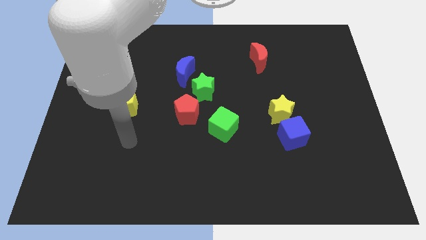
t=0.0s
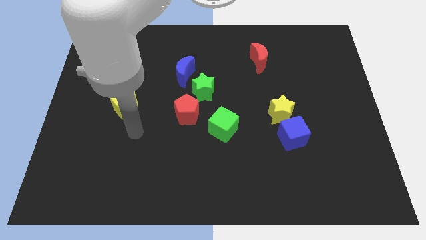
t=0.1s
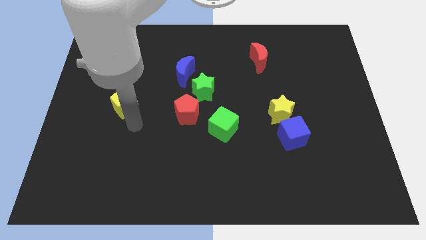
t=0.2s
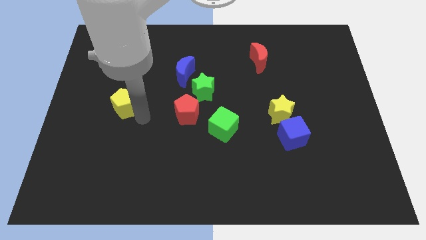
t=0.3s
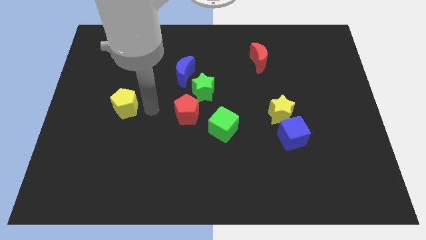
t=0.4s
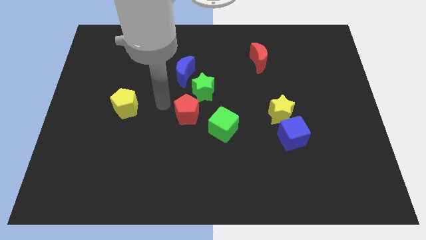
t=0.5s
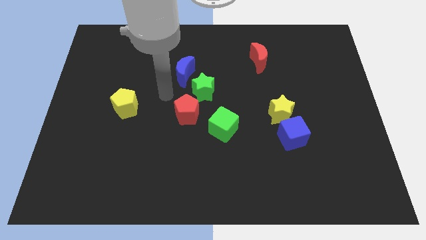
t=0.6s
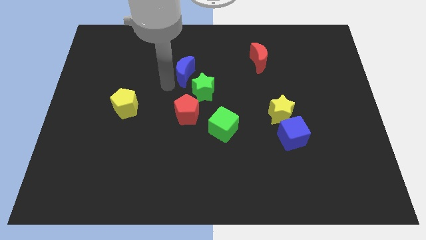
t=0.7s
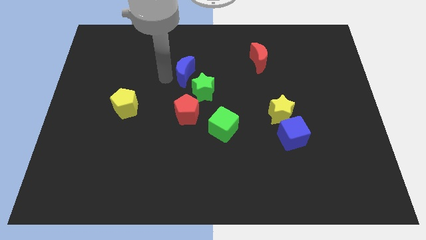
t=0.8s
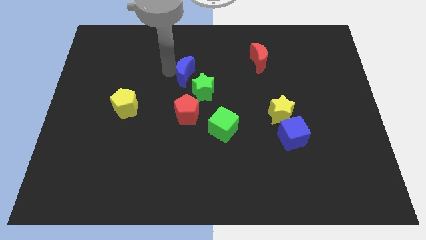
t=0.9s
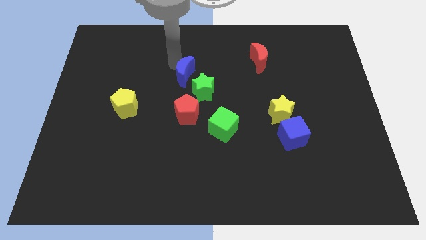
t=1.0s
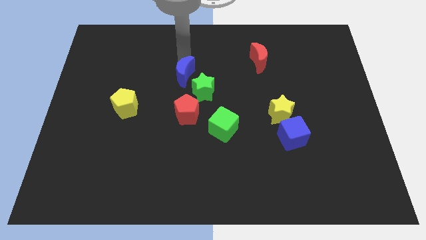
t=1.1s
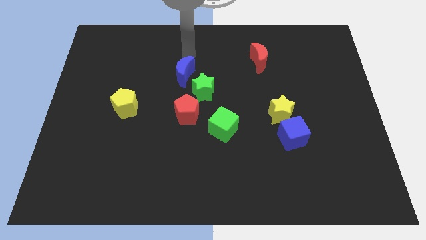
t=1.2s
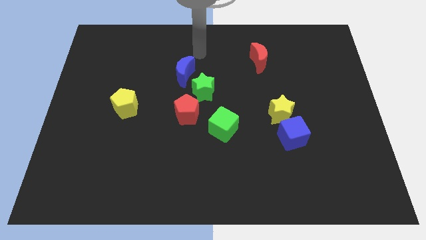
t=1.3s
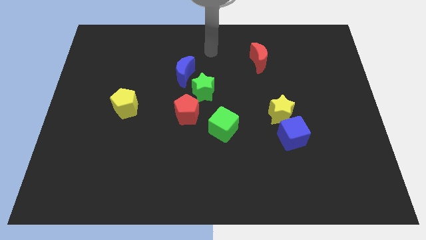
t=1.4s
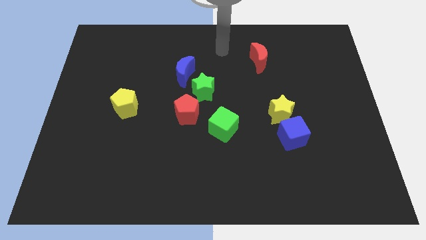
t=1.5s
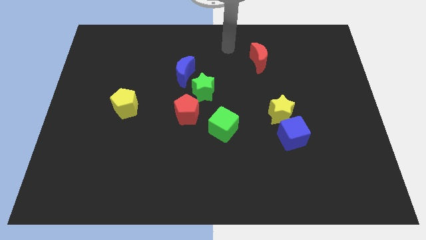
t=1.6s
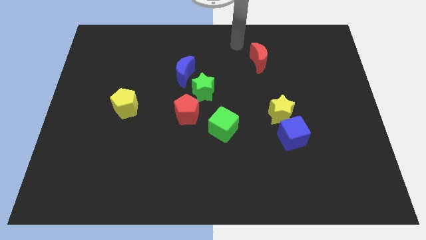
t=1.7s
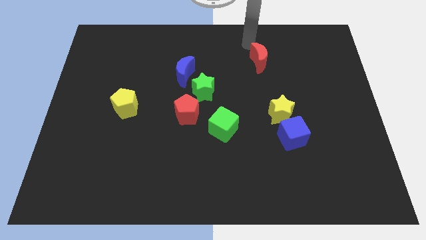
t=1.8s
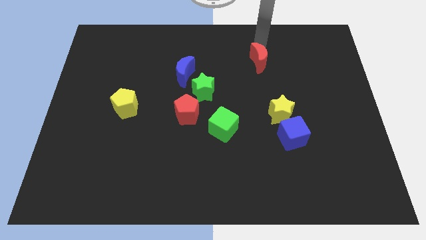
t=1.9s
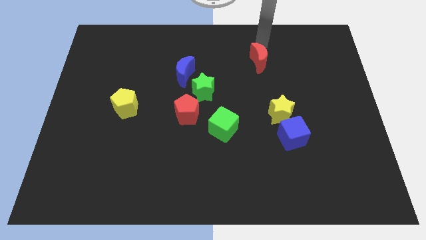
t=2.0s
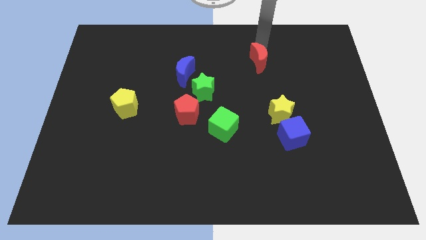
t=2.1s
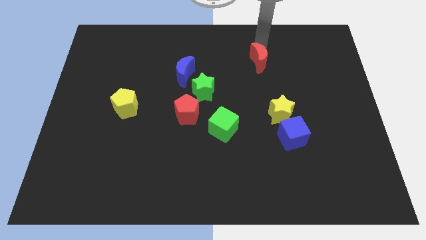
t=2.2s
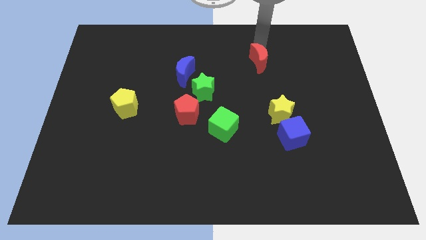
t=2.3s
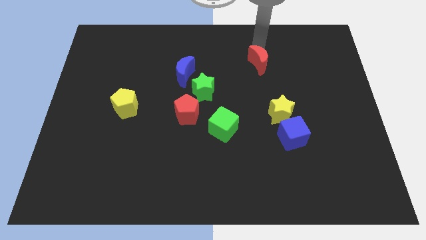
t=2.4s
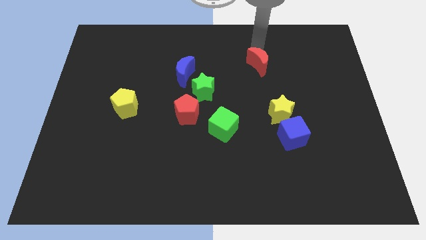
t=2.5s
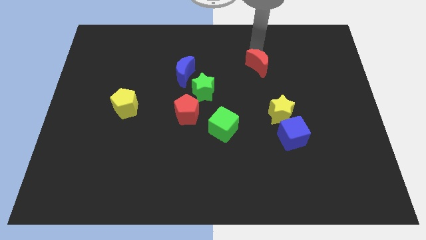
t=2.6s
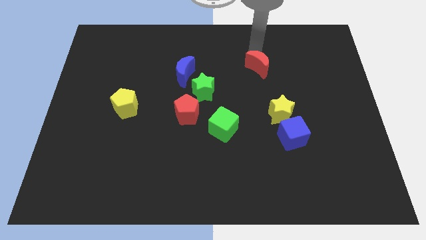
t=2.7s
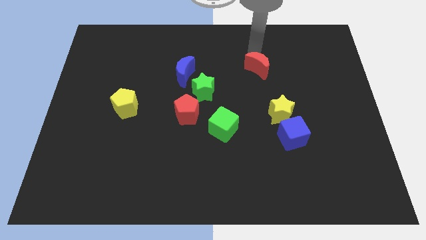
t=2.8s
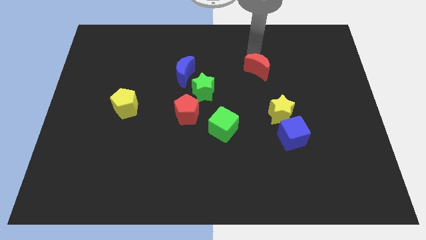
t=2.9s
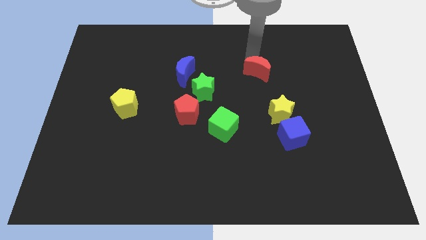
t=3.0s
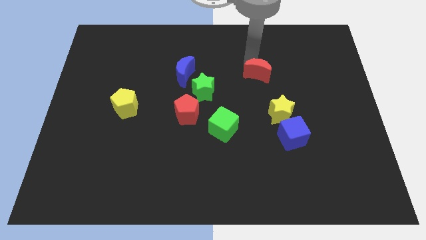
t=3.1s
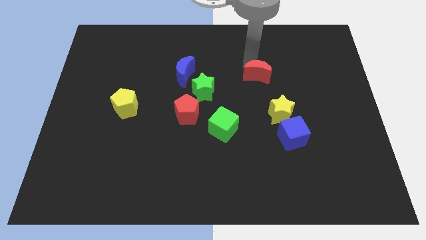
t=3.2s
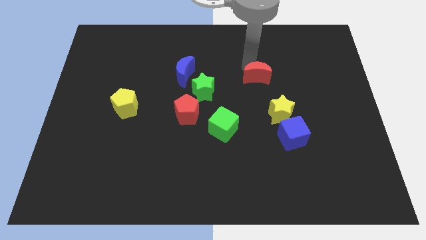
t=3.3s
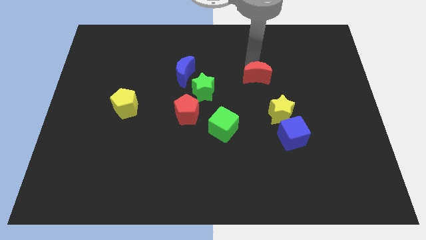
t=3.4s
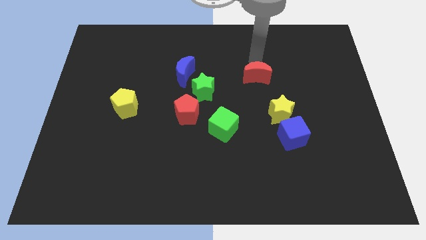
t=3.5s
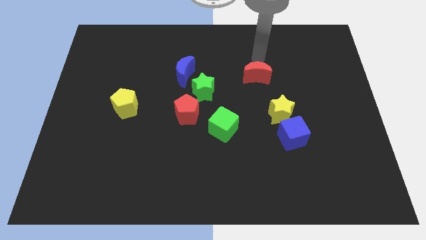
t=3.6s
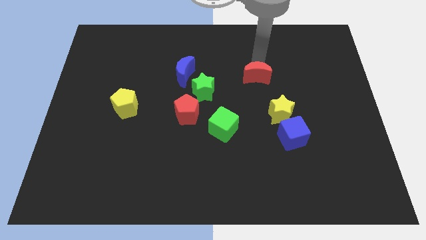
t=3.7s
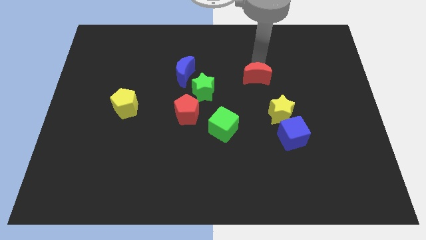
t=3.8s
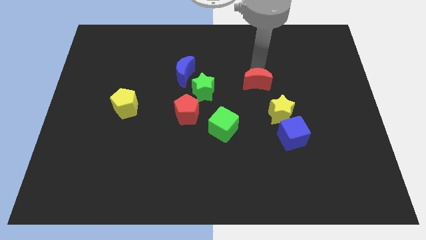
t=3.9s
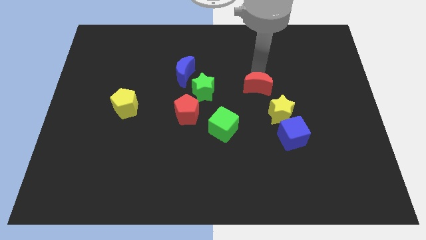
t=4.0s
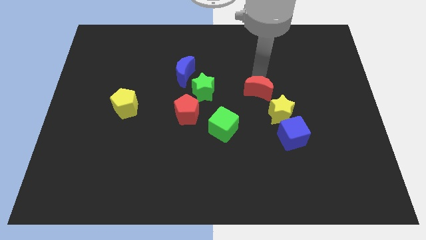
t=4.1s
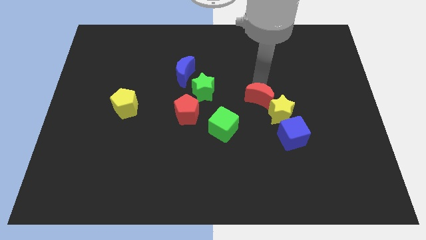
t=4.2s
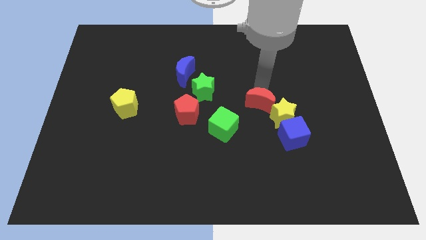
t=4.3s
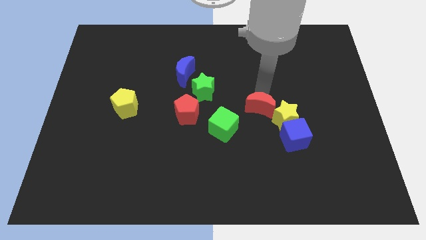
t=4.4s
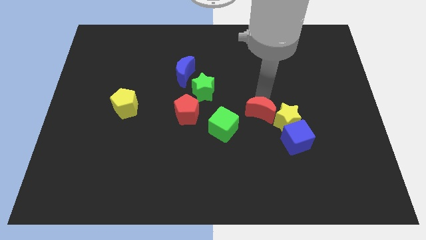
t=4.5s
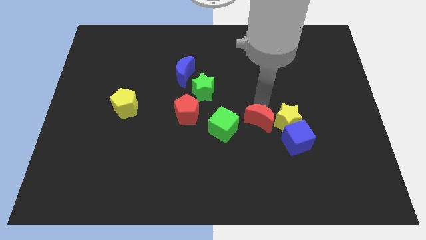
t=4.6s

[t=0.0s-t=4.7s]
push the red moon to the bottom left side of the yellow star

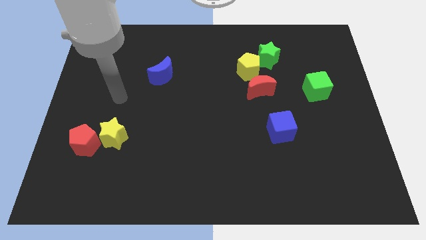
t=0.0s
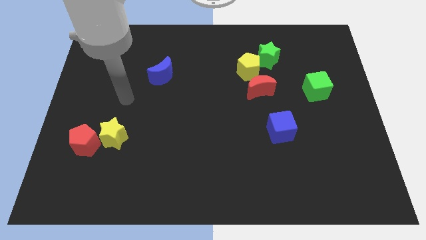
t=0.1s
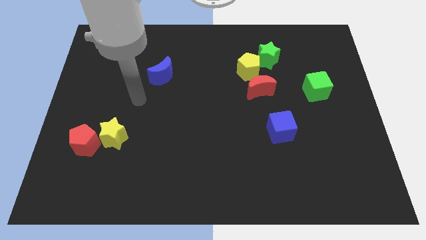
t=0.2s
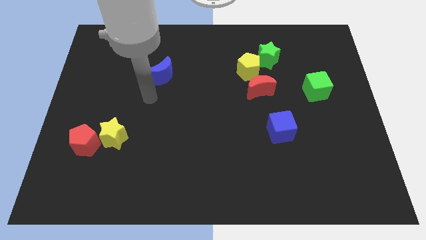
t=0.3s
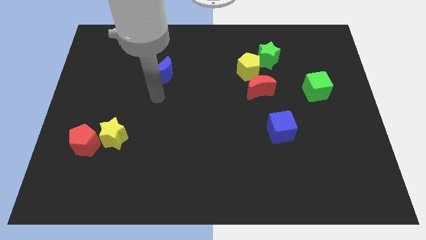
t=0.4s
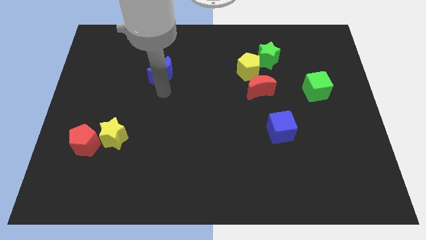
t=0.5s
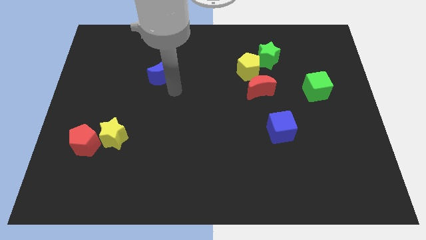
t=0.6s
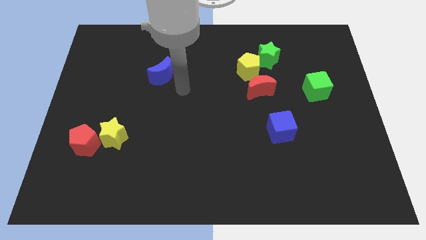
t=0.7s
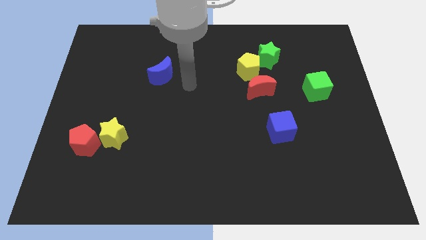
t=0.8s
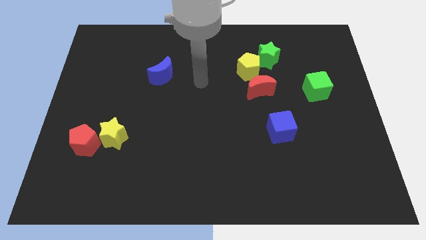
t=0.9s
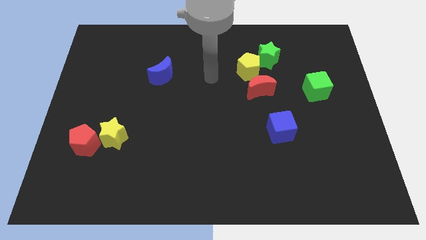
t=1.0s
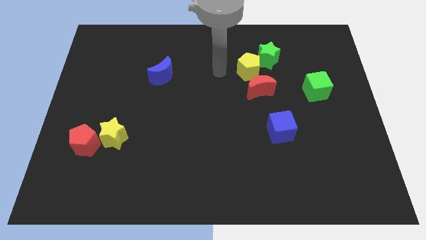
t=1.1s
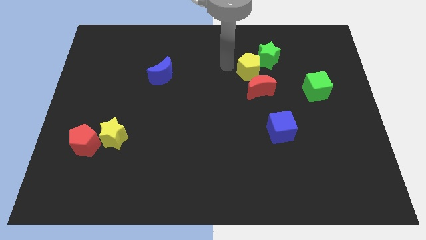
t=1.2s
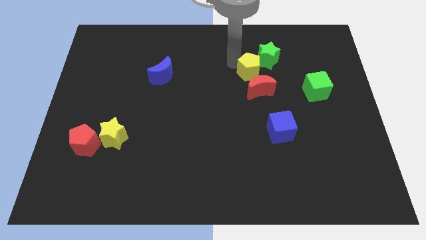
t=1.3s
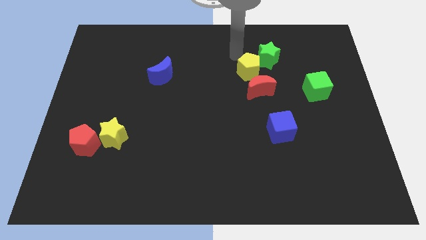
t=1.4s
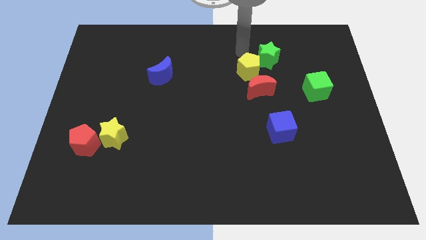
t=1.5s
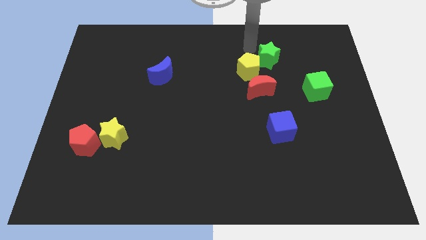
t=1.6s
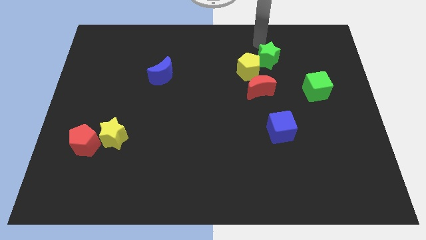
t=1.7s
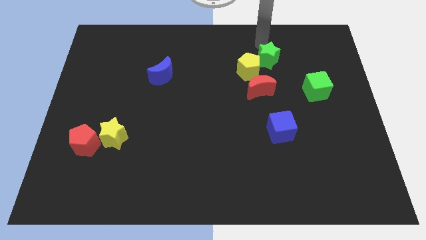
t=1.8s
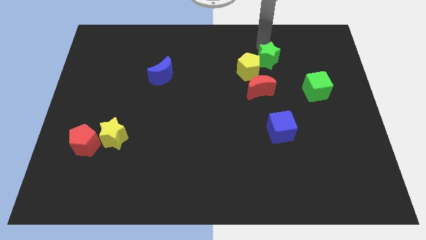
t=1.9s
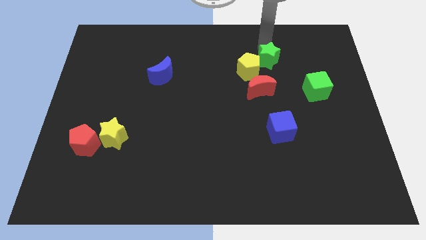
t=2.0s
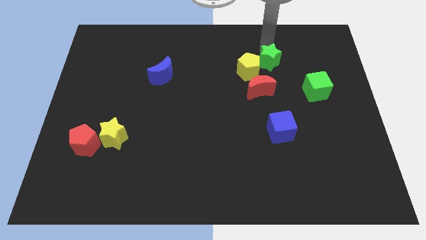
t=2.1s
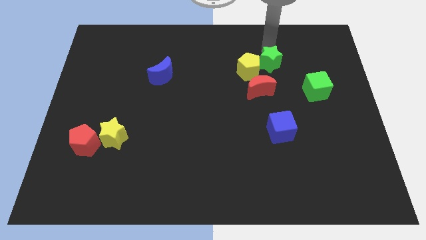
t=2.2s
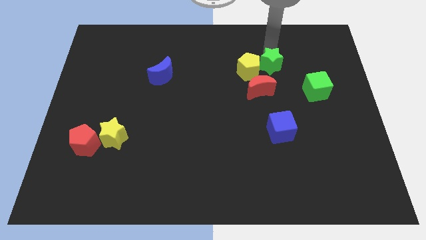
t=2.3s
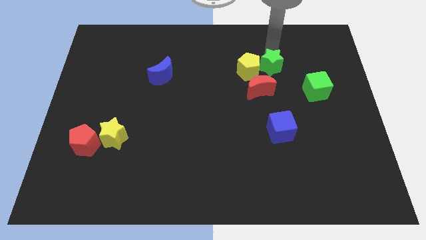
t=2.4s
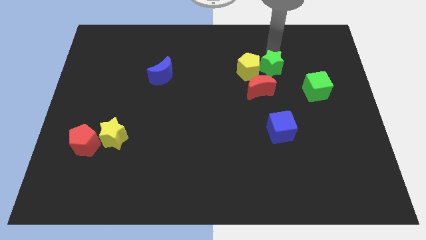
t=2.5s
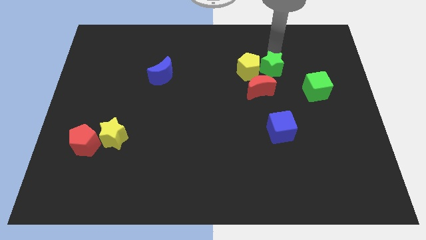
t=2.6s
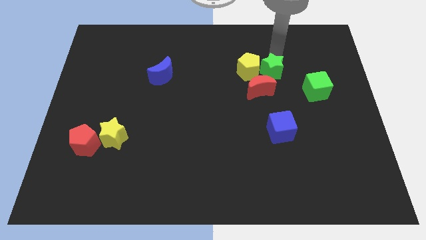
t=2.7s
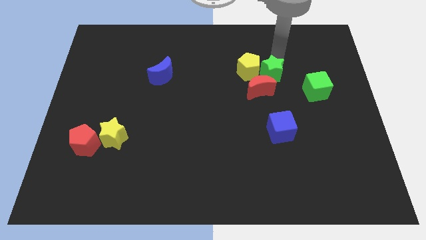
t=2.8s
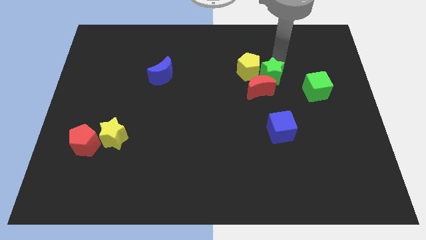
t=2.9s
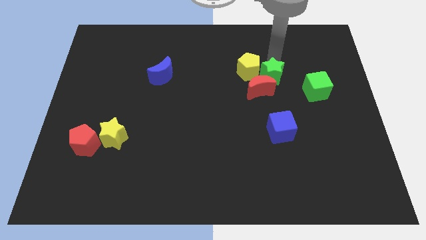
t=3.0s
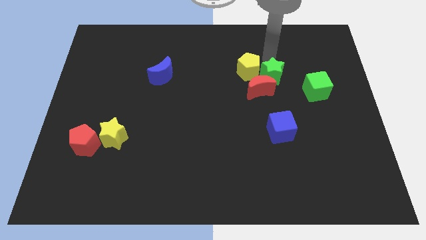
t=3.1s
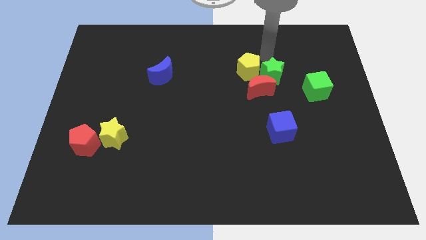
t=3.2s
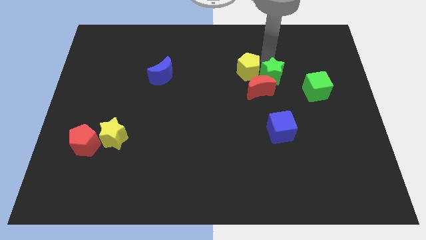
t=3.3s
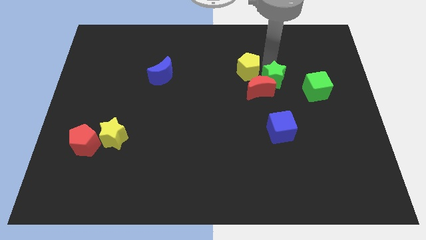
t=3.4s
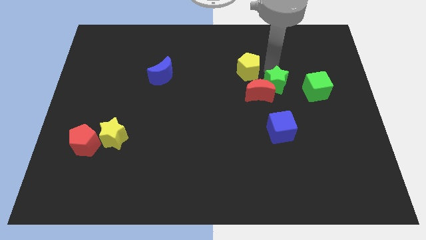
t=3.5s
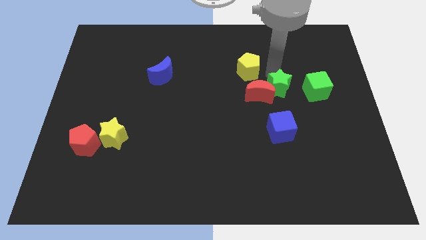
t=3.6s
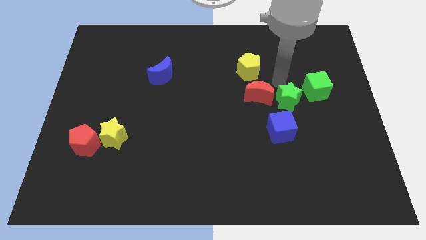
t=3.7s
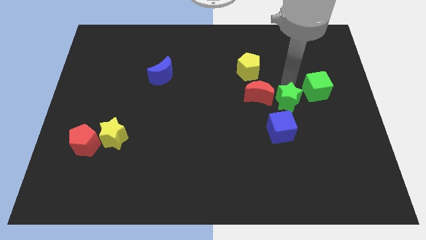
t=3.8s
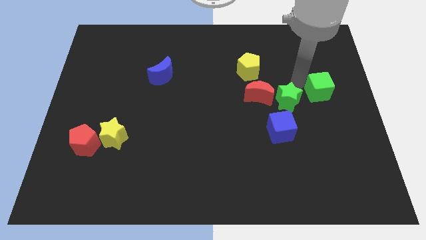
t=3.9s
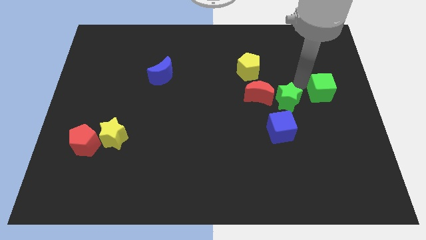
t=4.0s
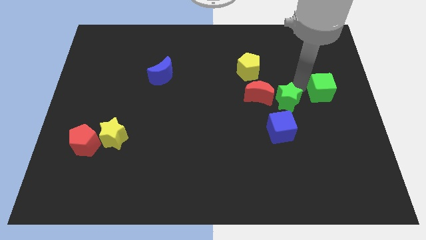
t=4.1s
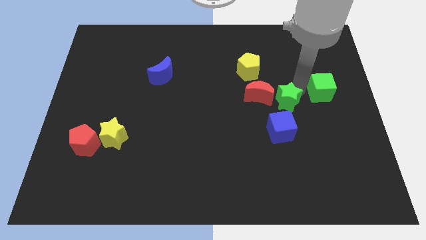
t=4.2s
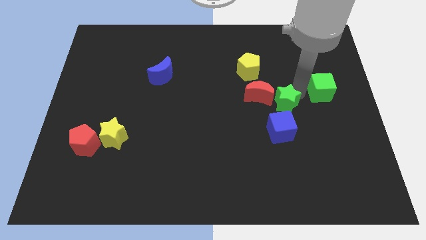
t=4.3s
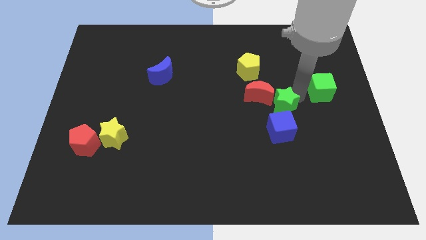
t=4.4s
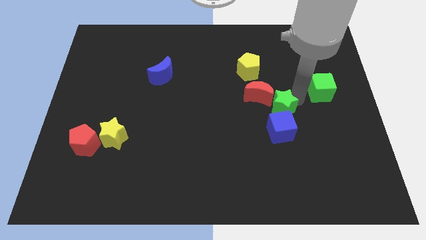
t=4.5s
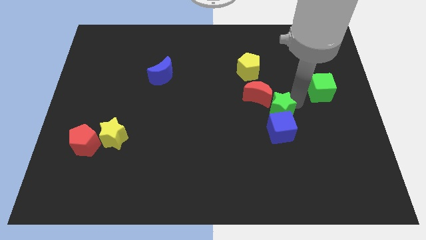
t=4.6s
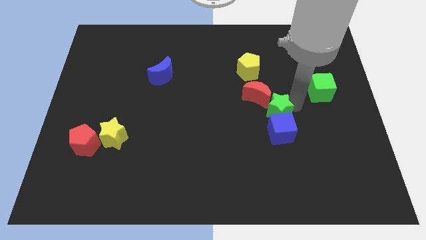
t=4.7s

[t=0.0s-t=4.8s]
put the green star below the red moon
